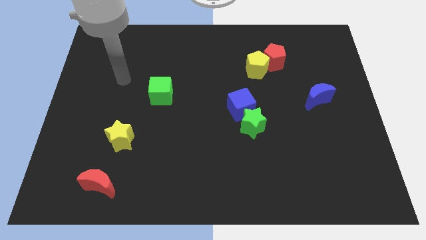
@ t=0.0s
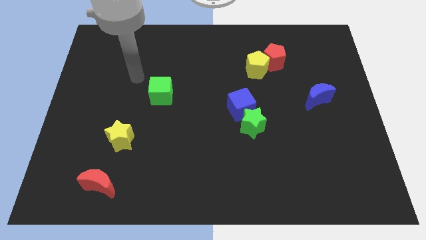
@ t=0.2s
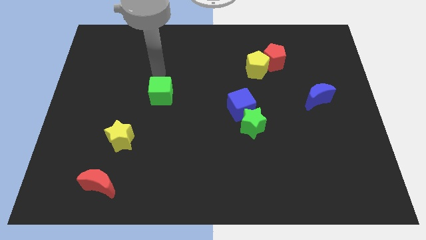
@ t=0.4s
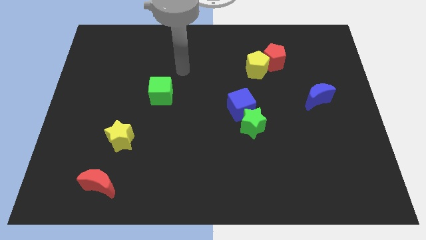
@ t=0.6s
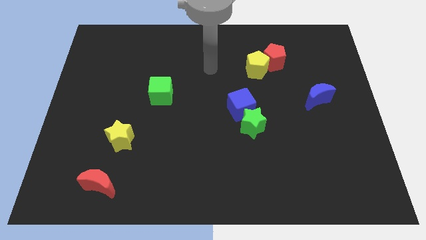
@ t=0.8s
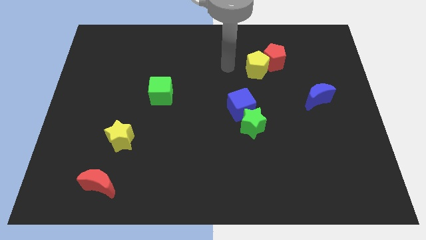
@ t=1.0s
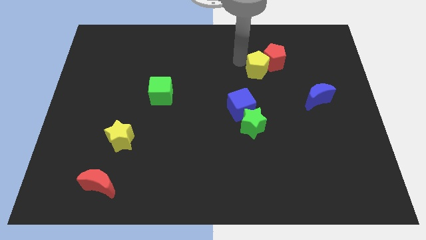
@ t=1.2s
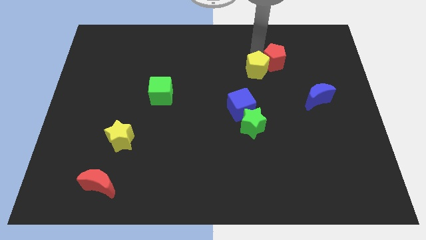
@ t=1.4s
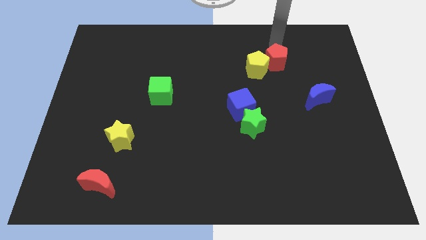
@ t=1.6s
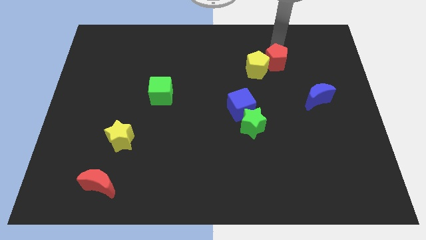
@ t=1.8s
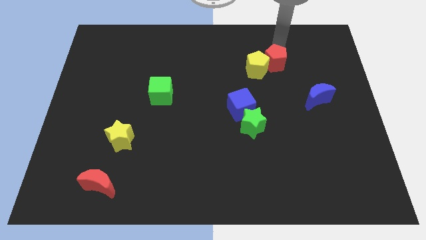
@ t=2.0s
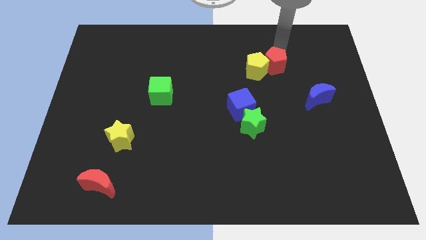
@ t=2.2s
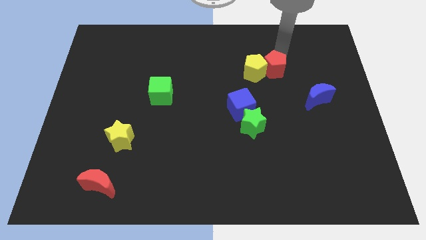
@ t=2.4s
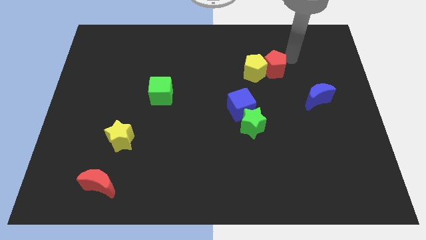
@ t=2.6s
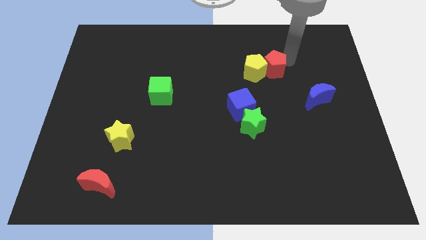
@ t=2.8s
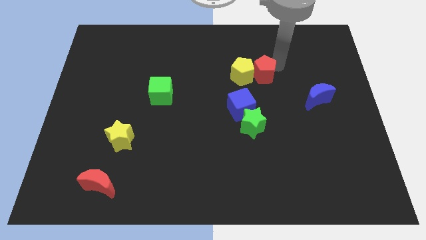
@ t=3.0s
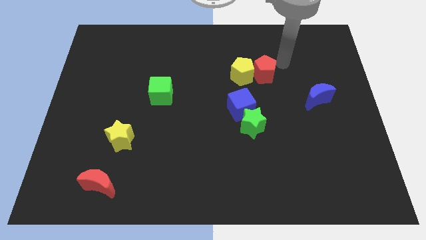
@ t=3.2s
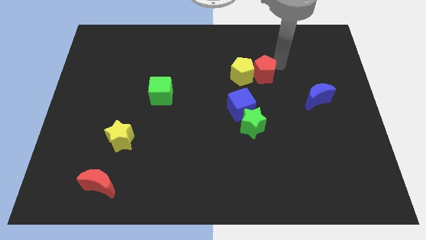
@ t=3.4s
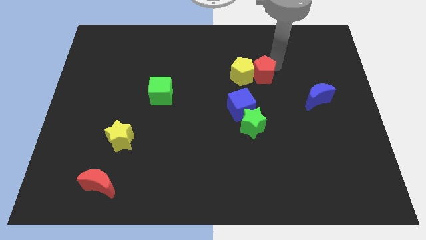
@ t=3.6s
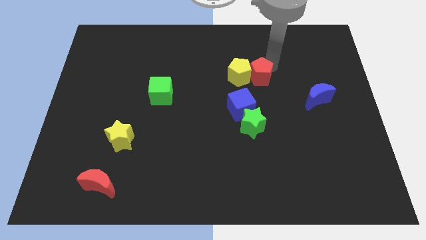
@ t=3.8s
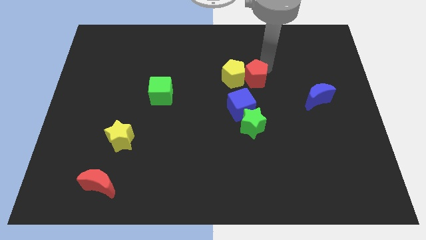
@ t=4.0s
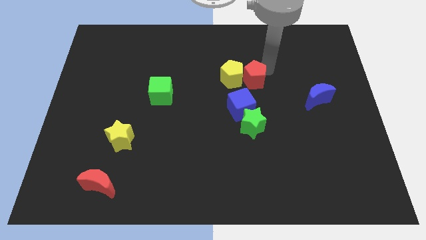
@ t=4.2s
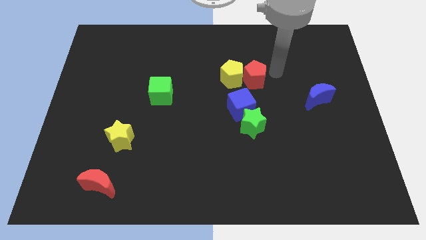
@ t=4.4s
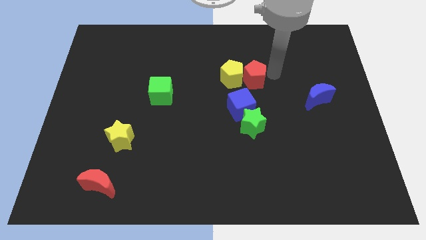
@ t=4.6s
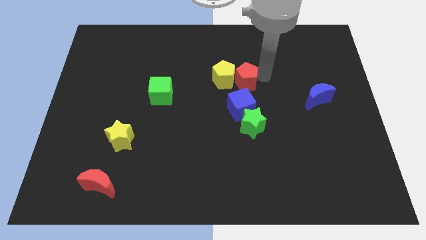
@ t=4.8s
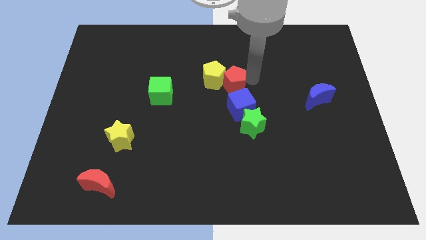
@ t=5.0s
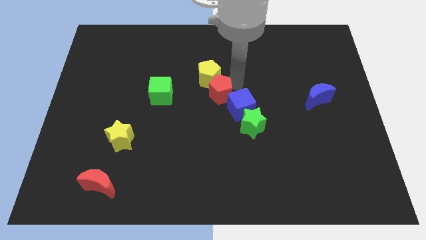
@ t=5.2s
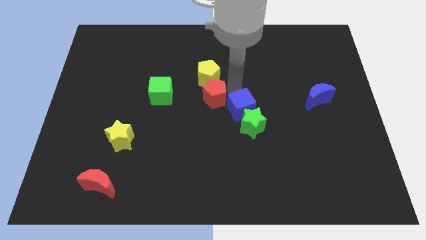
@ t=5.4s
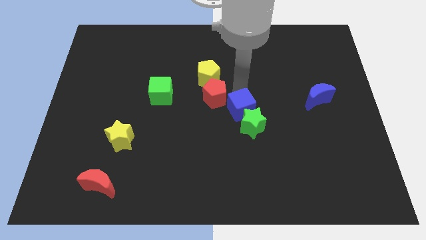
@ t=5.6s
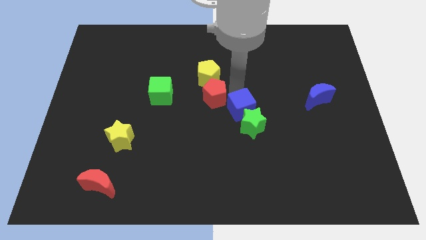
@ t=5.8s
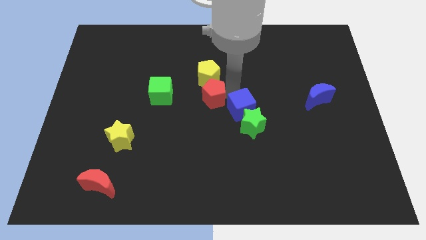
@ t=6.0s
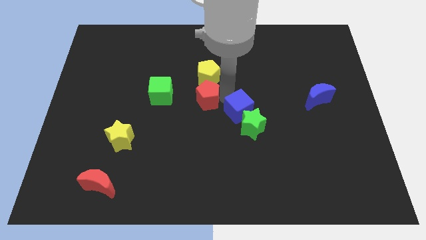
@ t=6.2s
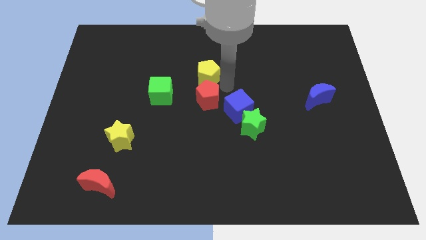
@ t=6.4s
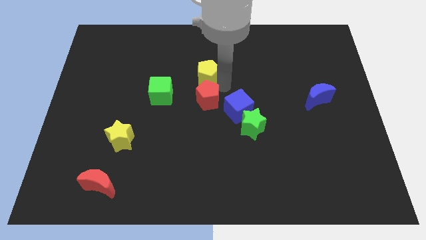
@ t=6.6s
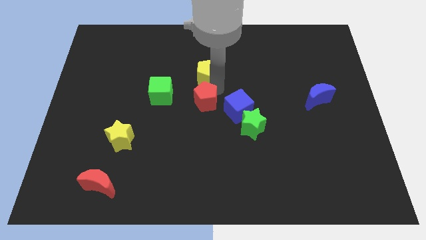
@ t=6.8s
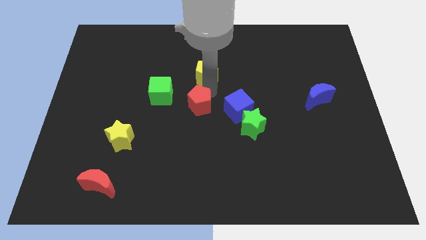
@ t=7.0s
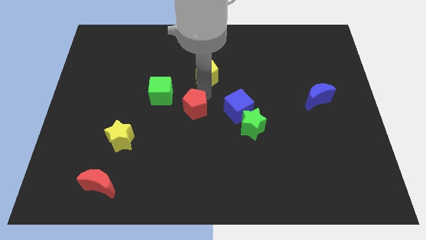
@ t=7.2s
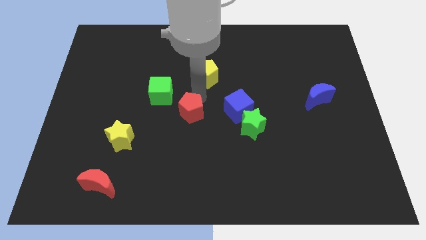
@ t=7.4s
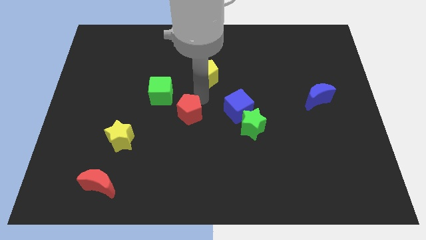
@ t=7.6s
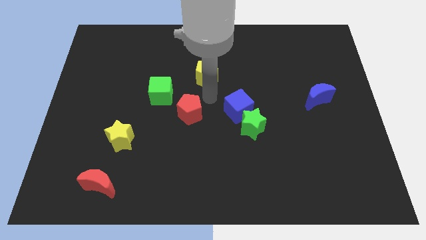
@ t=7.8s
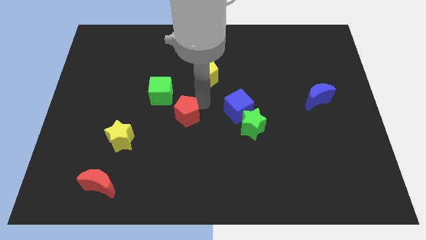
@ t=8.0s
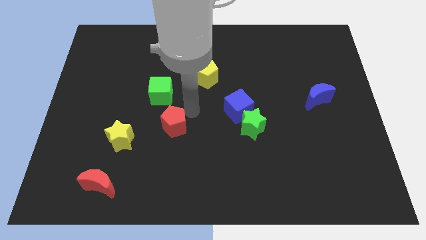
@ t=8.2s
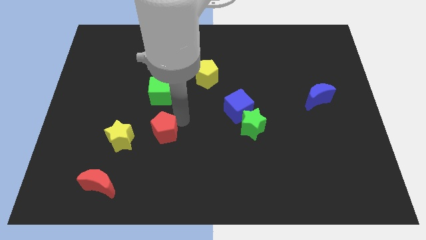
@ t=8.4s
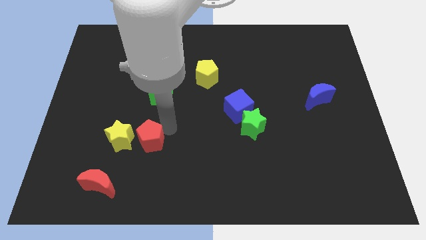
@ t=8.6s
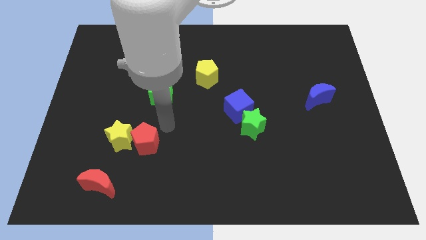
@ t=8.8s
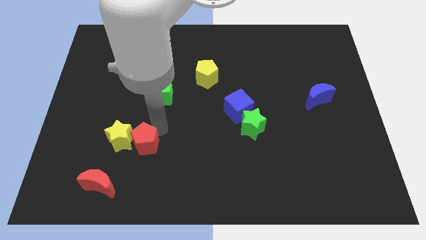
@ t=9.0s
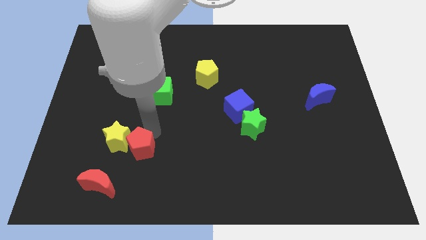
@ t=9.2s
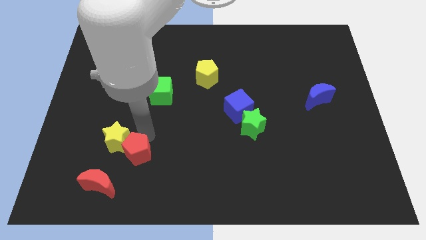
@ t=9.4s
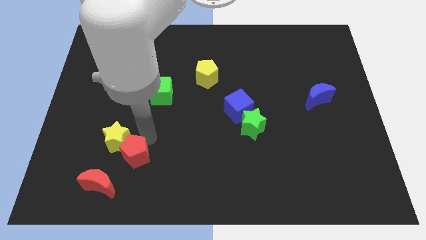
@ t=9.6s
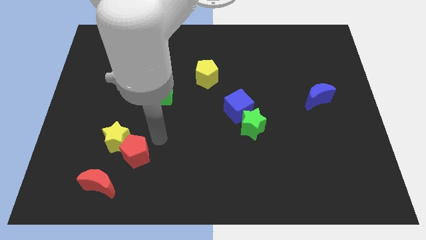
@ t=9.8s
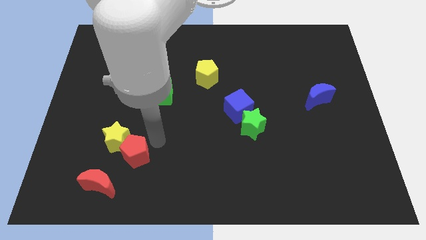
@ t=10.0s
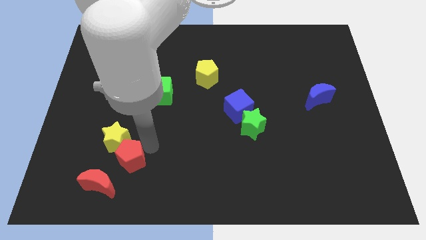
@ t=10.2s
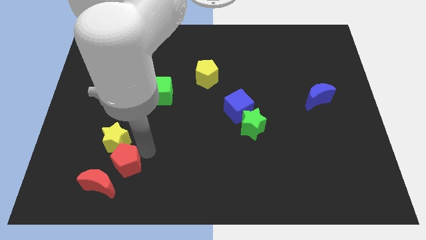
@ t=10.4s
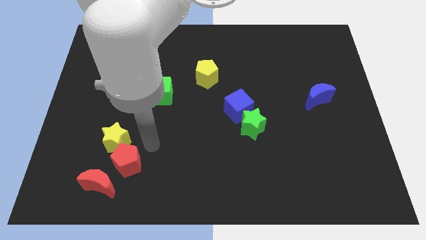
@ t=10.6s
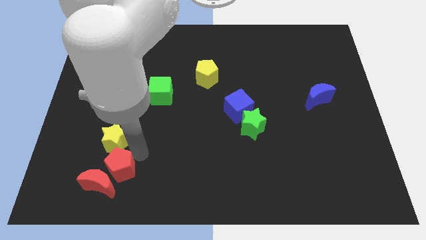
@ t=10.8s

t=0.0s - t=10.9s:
push the red pentagon next to the red moon
